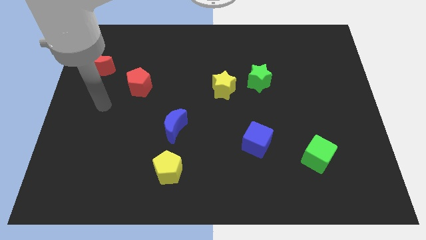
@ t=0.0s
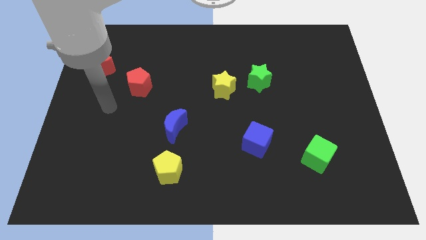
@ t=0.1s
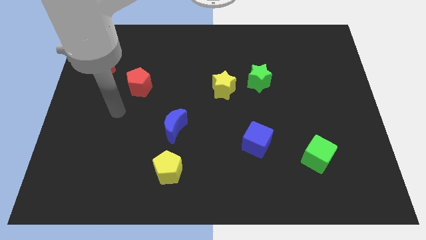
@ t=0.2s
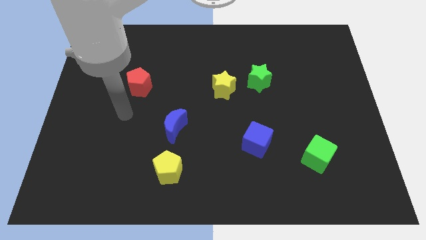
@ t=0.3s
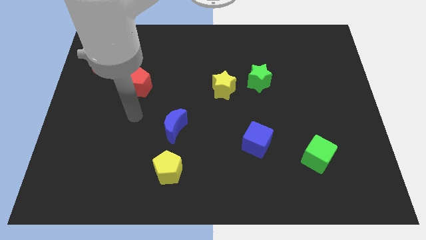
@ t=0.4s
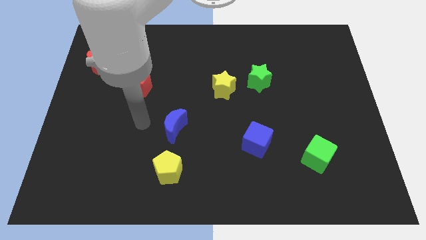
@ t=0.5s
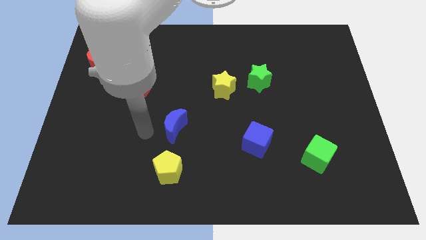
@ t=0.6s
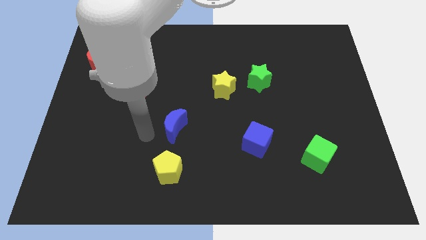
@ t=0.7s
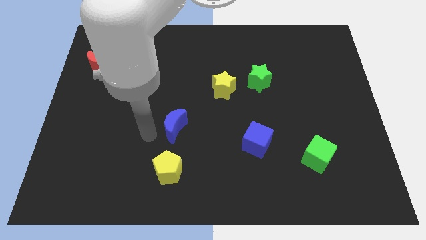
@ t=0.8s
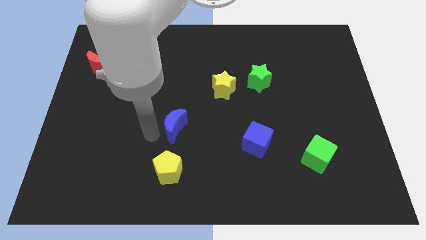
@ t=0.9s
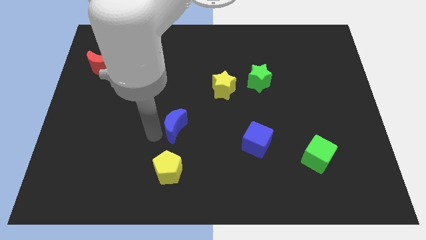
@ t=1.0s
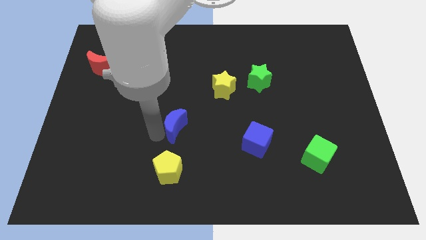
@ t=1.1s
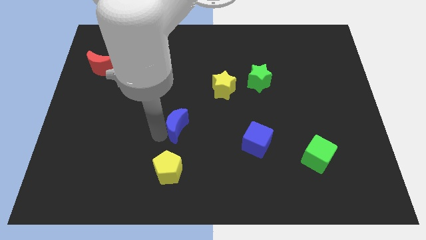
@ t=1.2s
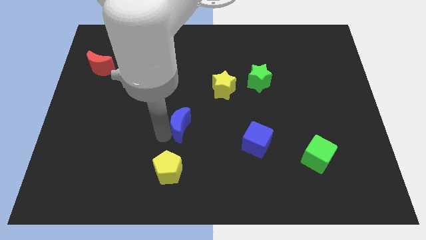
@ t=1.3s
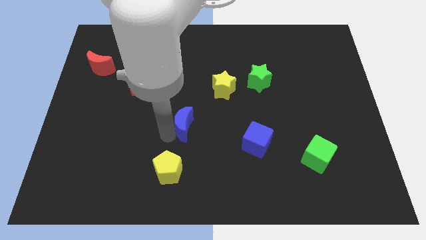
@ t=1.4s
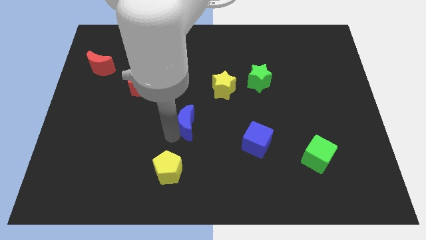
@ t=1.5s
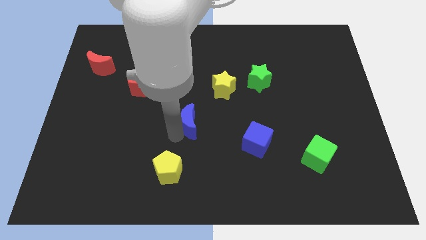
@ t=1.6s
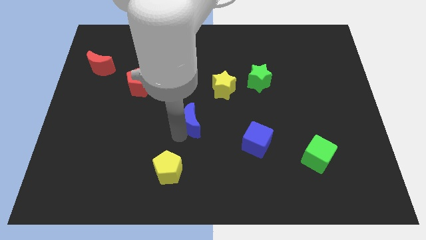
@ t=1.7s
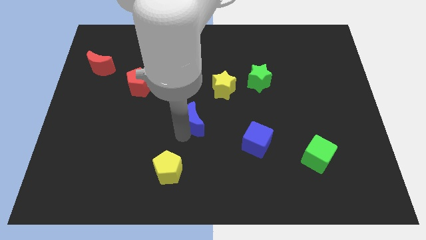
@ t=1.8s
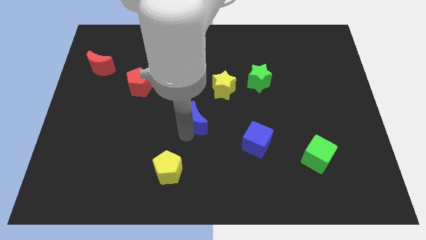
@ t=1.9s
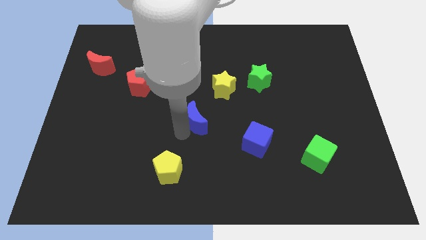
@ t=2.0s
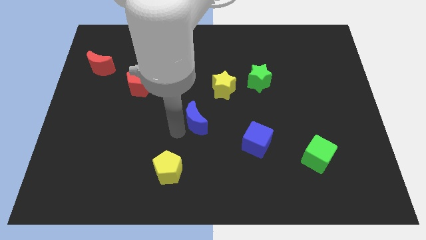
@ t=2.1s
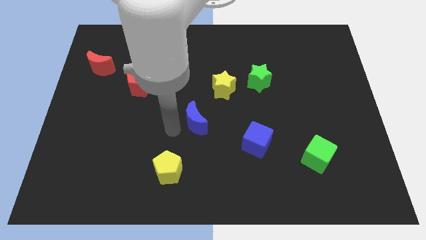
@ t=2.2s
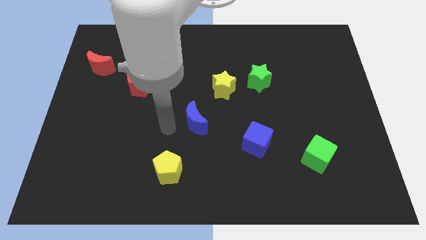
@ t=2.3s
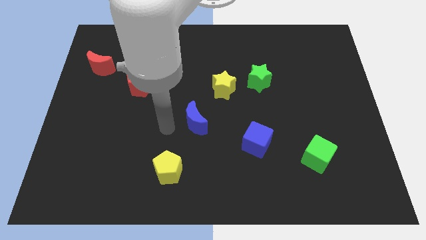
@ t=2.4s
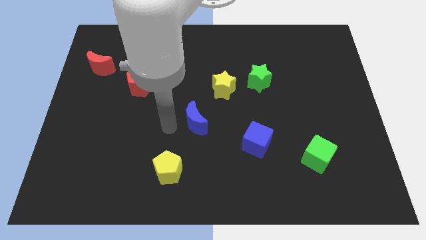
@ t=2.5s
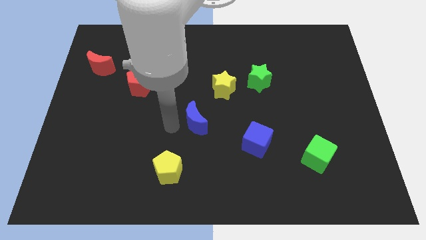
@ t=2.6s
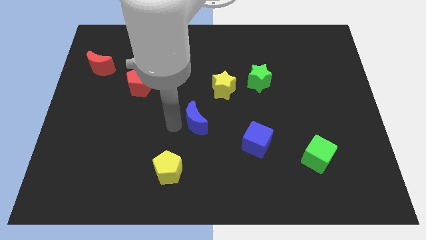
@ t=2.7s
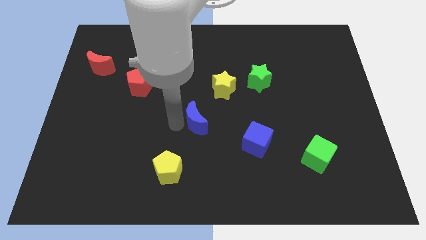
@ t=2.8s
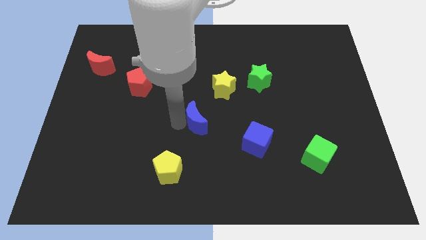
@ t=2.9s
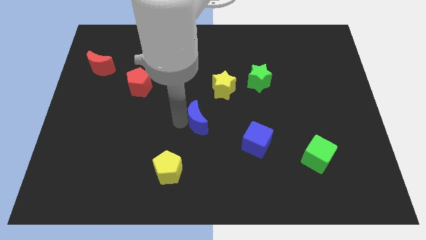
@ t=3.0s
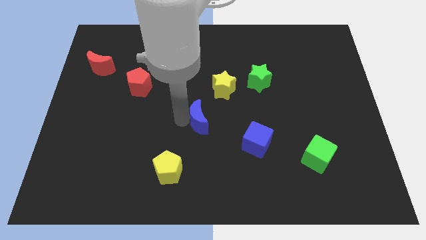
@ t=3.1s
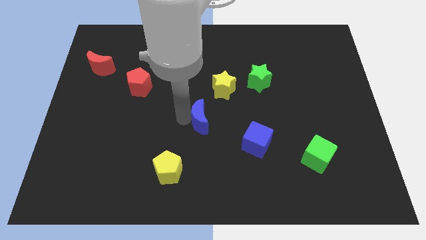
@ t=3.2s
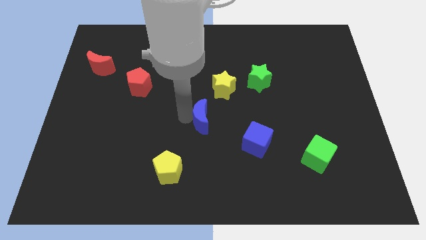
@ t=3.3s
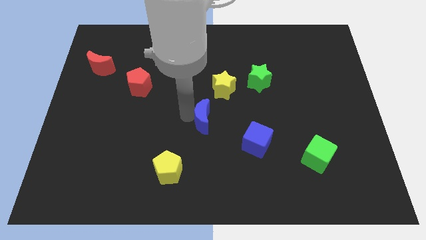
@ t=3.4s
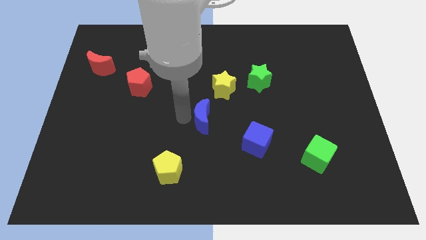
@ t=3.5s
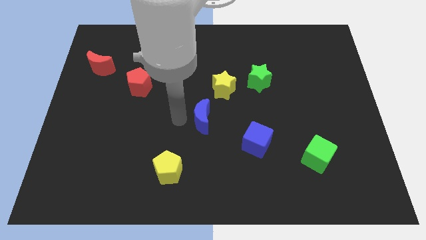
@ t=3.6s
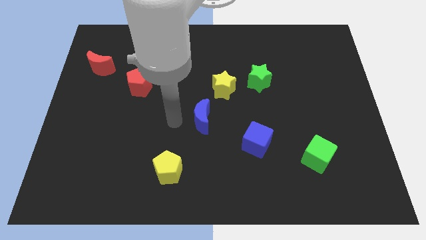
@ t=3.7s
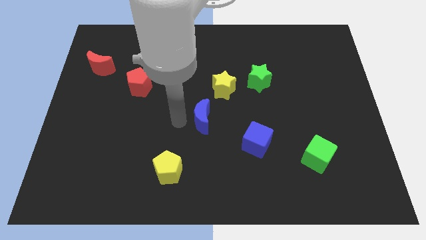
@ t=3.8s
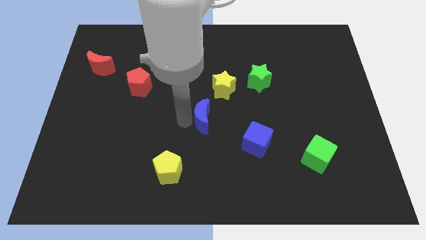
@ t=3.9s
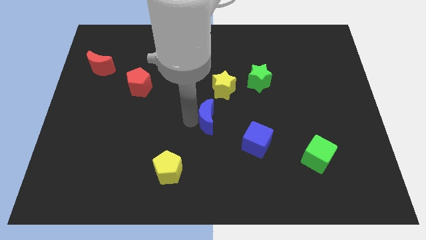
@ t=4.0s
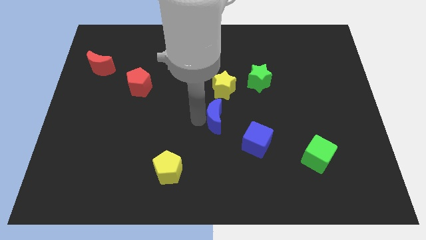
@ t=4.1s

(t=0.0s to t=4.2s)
put the blue moon to the top left side of the blue cube

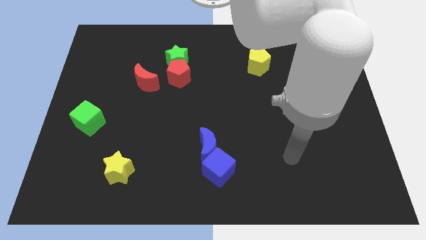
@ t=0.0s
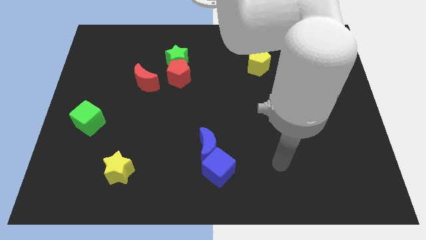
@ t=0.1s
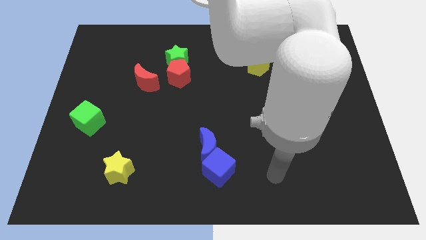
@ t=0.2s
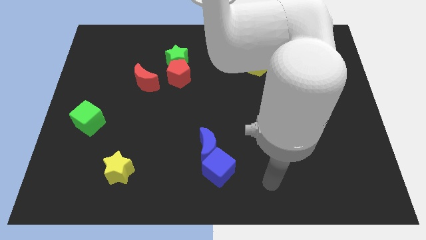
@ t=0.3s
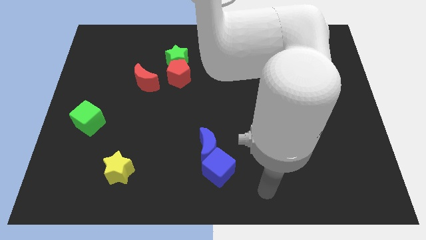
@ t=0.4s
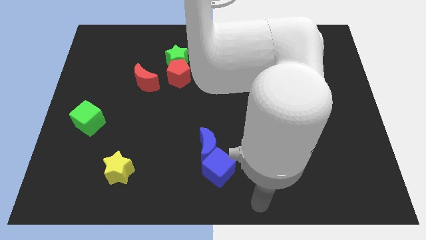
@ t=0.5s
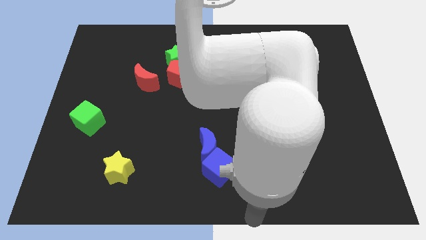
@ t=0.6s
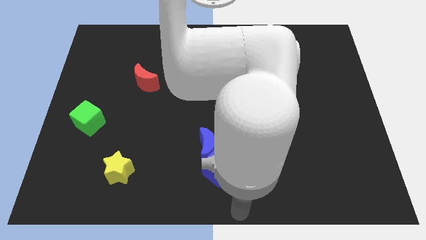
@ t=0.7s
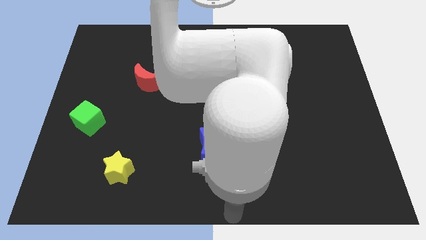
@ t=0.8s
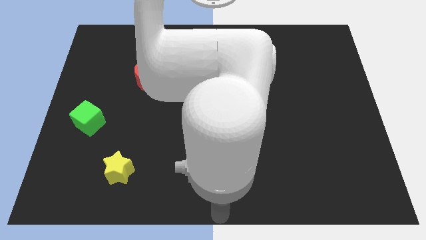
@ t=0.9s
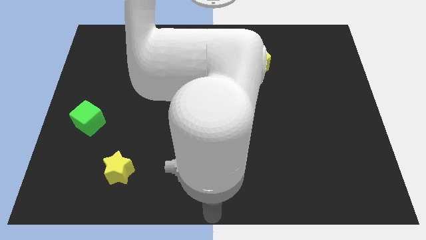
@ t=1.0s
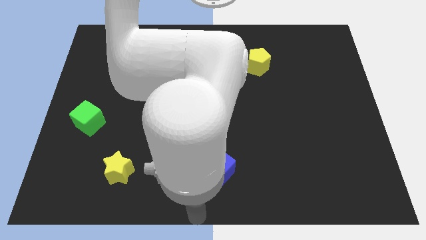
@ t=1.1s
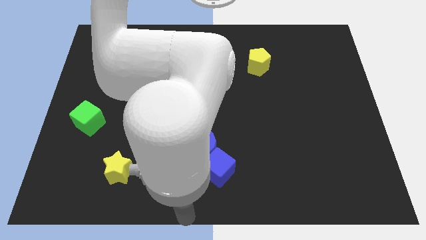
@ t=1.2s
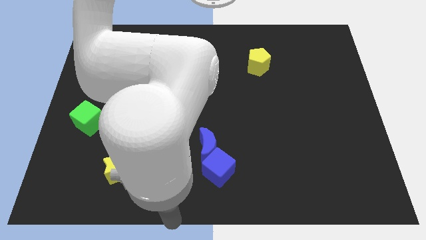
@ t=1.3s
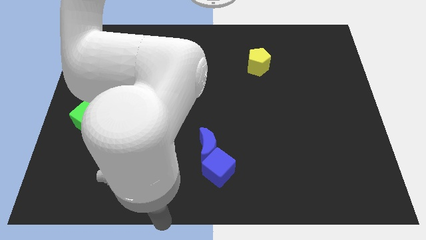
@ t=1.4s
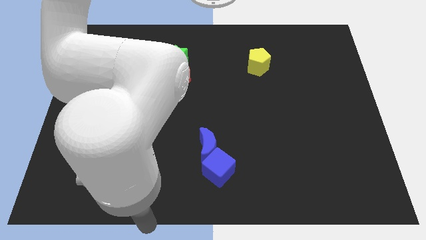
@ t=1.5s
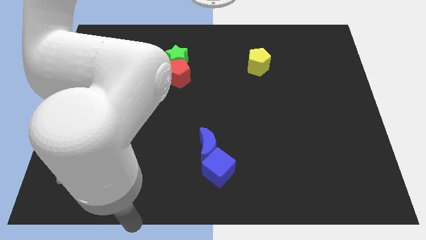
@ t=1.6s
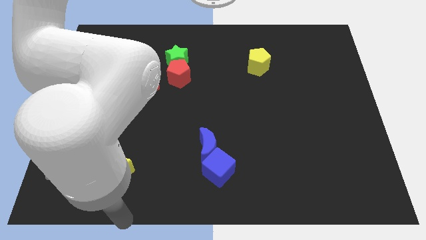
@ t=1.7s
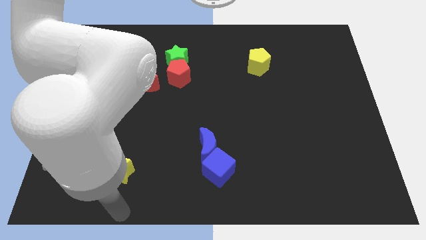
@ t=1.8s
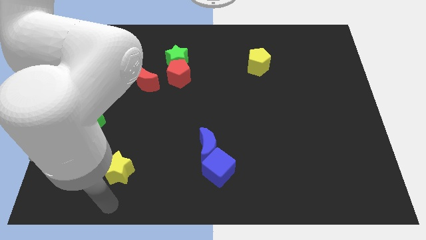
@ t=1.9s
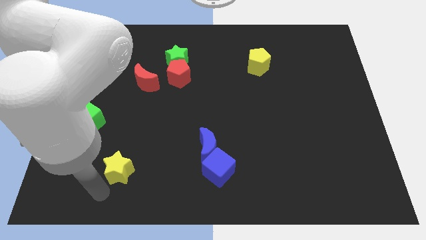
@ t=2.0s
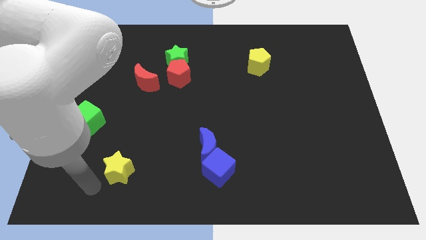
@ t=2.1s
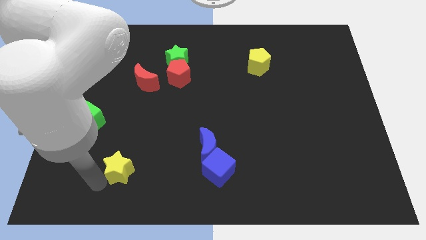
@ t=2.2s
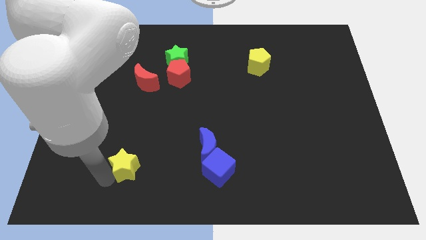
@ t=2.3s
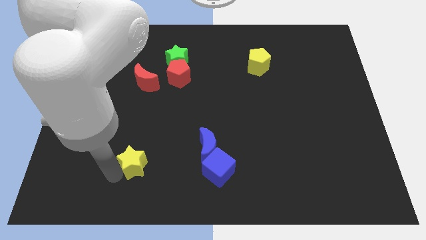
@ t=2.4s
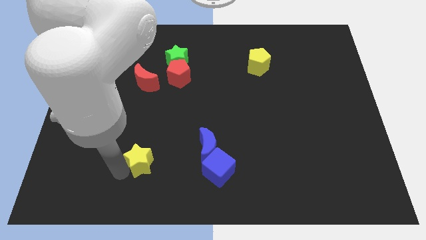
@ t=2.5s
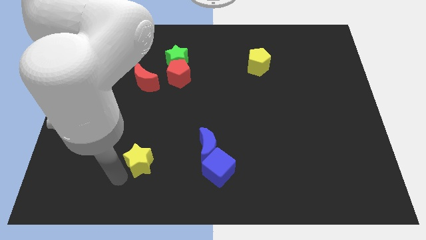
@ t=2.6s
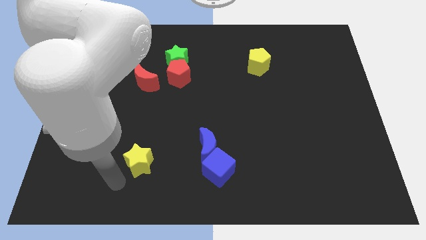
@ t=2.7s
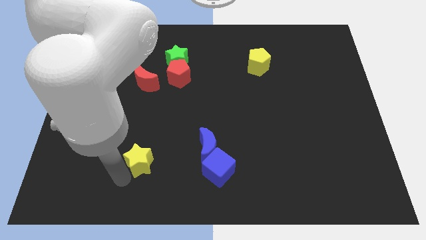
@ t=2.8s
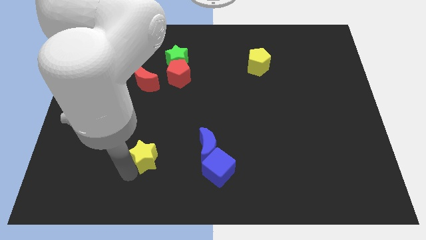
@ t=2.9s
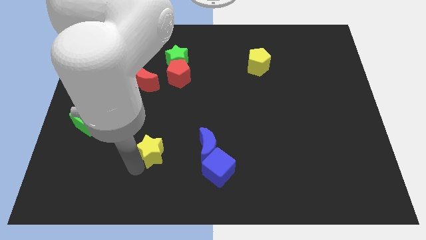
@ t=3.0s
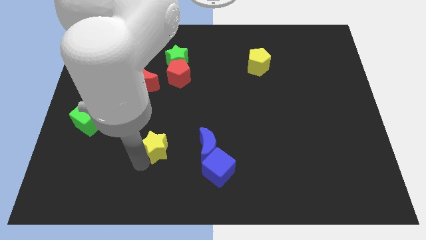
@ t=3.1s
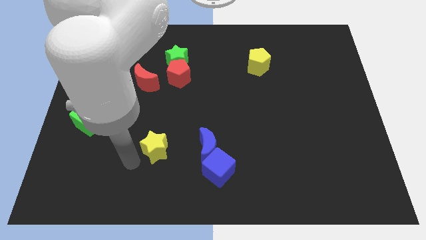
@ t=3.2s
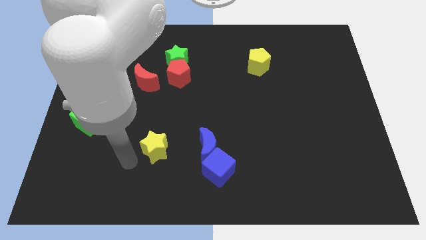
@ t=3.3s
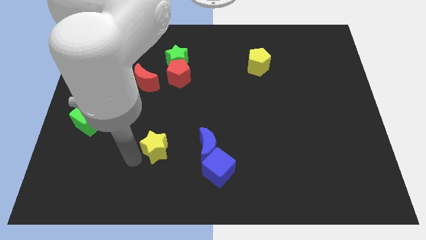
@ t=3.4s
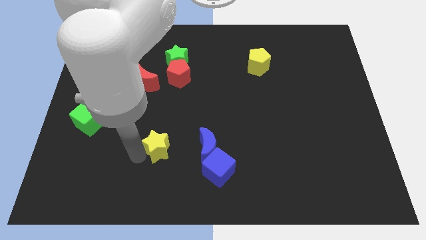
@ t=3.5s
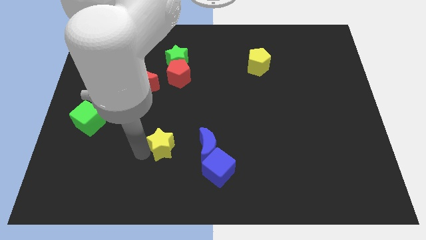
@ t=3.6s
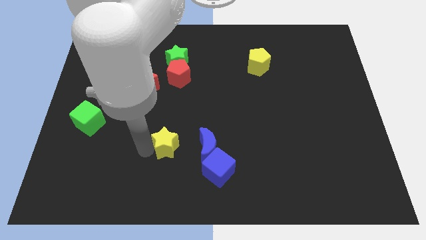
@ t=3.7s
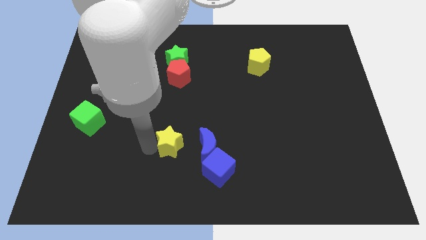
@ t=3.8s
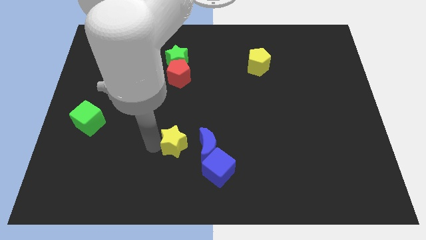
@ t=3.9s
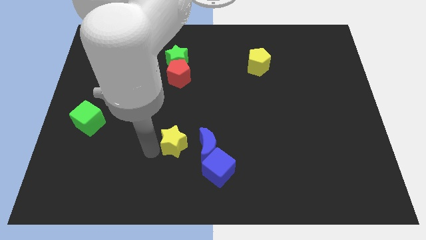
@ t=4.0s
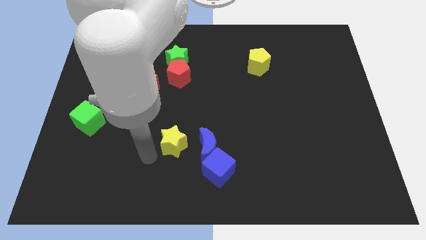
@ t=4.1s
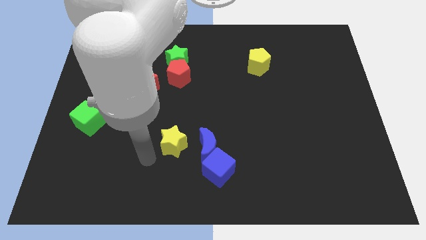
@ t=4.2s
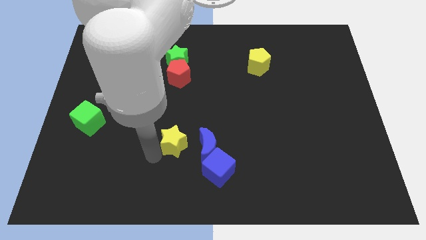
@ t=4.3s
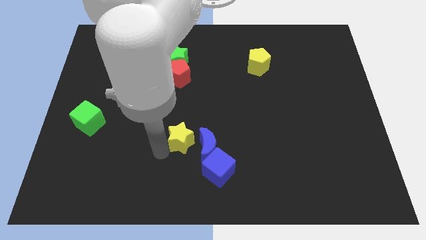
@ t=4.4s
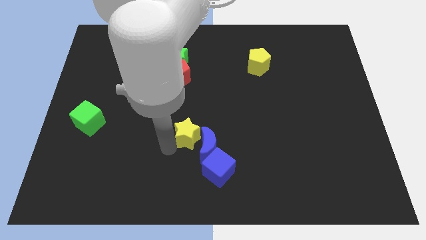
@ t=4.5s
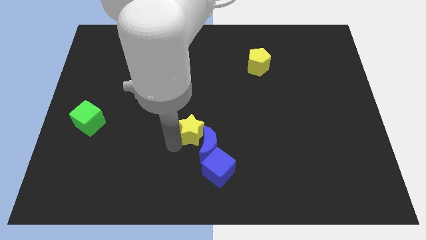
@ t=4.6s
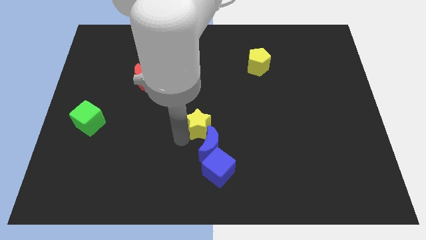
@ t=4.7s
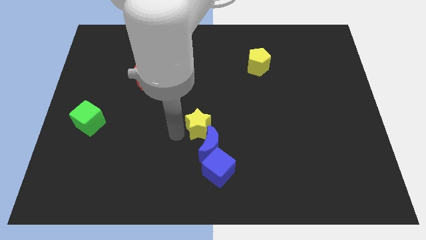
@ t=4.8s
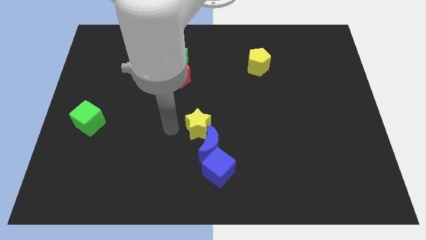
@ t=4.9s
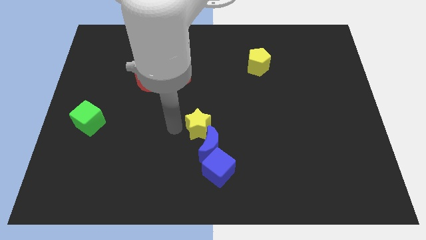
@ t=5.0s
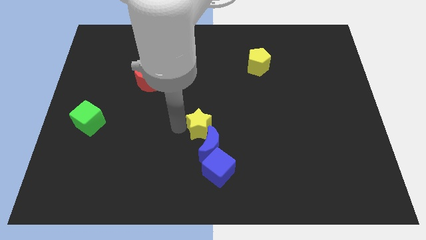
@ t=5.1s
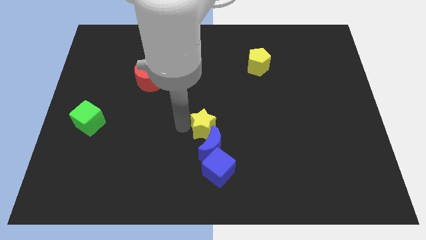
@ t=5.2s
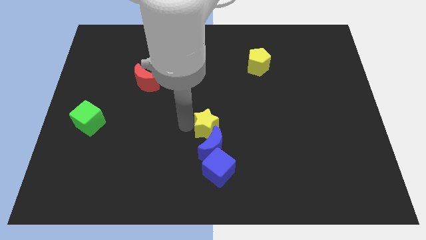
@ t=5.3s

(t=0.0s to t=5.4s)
push the yellow star to the top right of the blue moon
